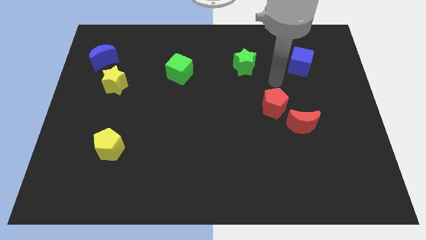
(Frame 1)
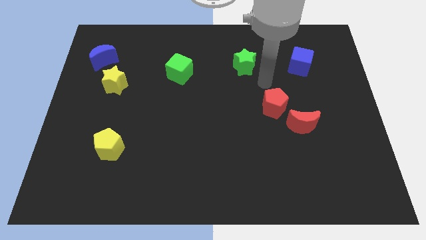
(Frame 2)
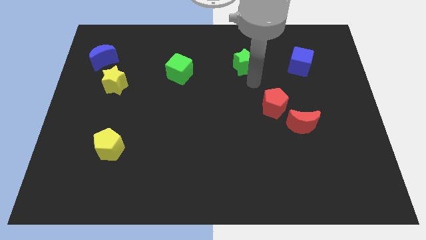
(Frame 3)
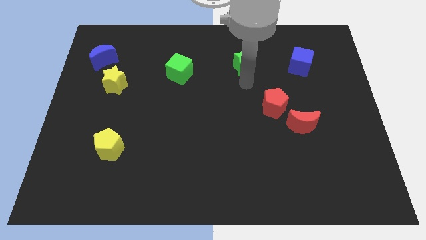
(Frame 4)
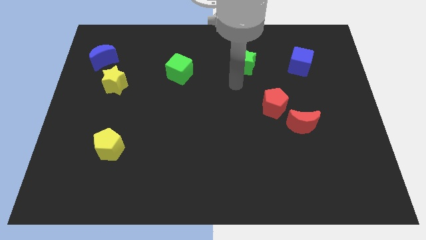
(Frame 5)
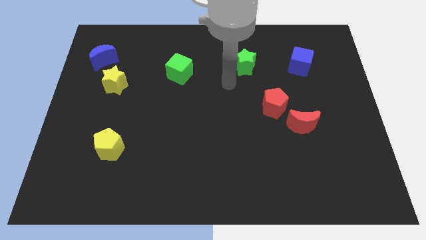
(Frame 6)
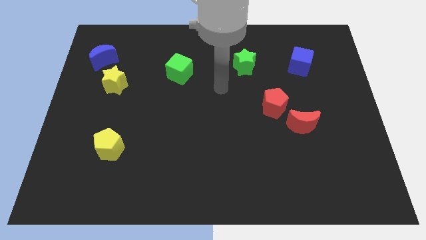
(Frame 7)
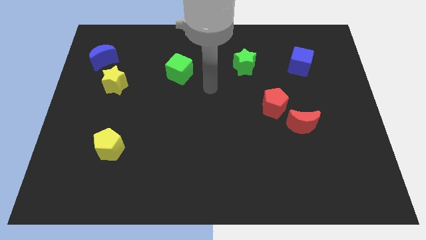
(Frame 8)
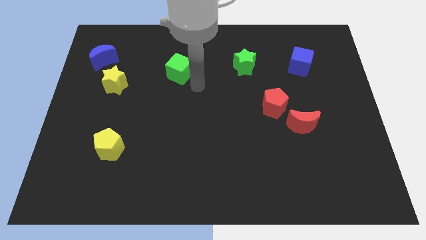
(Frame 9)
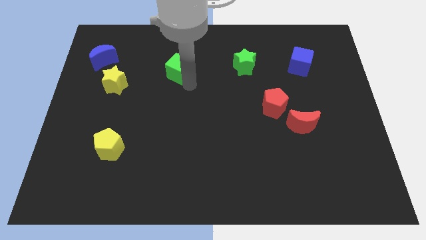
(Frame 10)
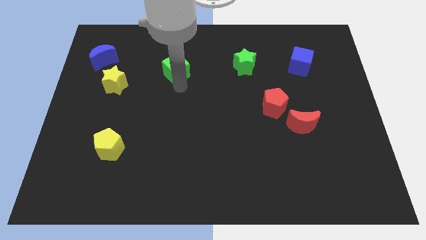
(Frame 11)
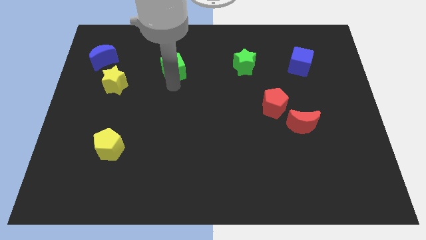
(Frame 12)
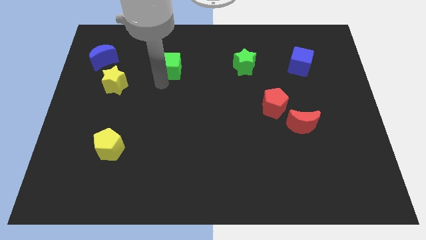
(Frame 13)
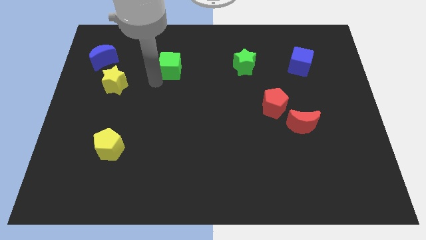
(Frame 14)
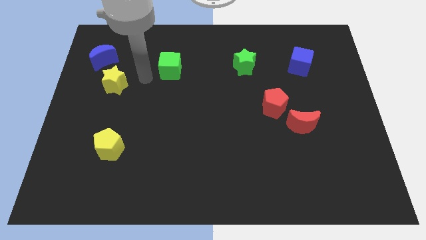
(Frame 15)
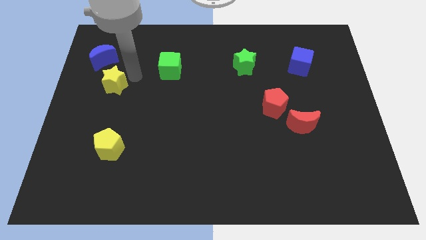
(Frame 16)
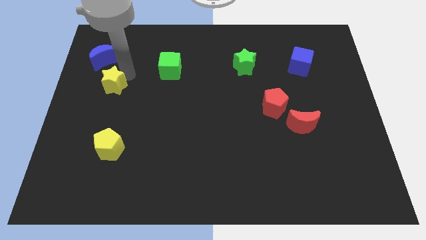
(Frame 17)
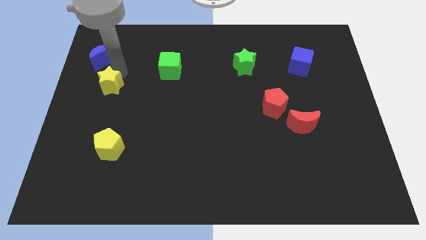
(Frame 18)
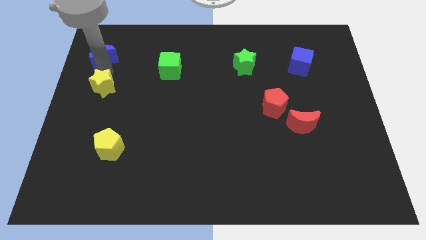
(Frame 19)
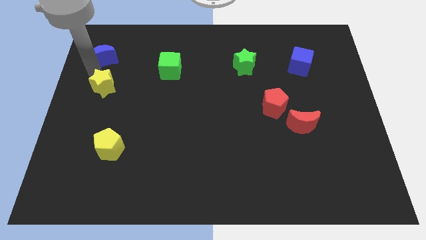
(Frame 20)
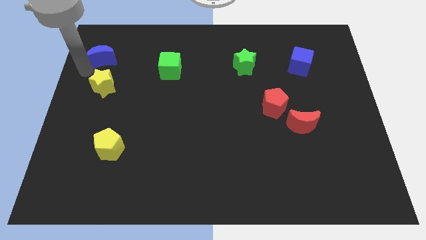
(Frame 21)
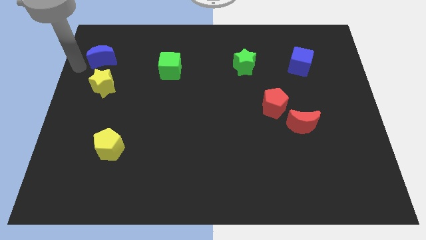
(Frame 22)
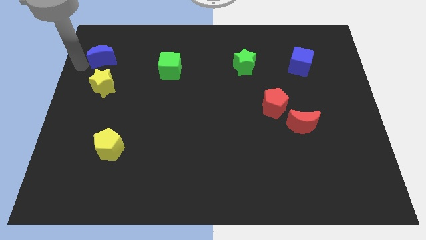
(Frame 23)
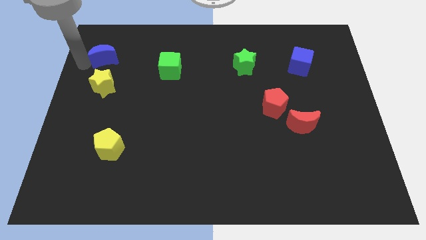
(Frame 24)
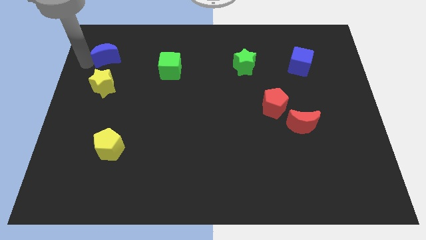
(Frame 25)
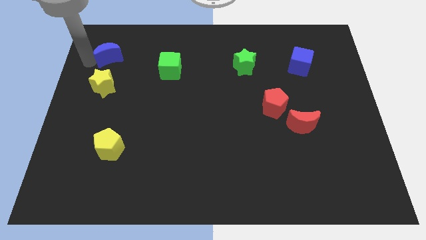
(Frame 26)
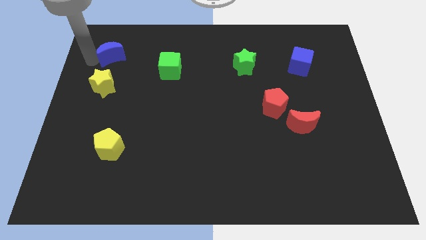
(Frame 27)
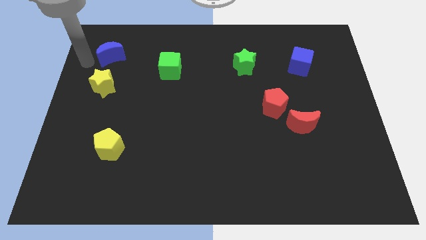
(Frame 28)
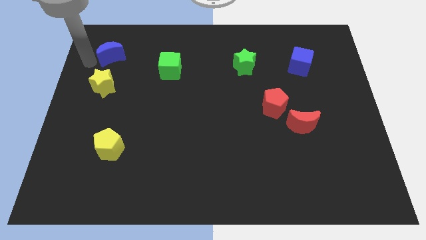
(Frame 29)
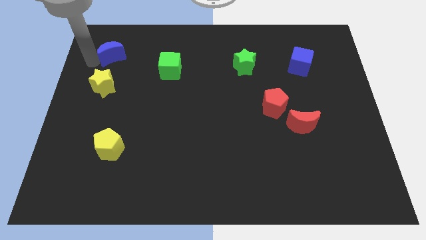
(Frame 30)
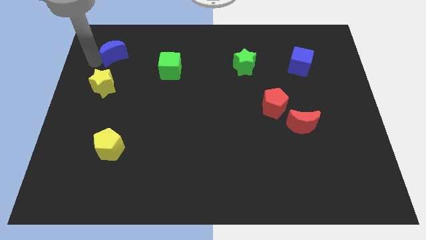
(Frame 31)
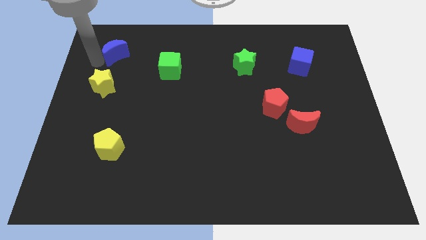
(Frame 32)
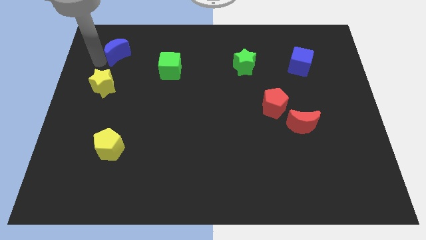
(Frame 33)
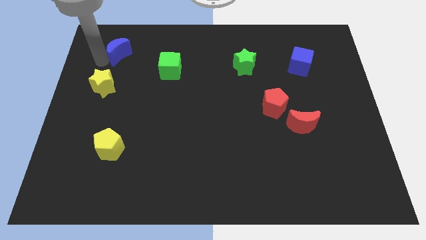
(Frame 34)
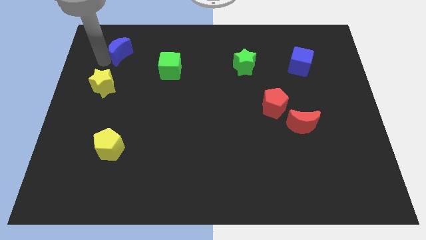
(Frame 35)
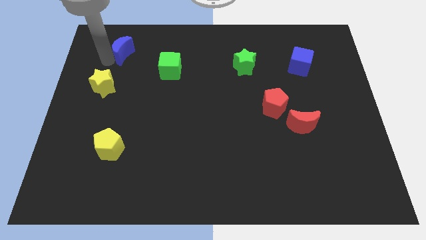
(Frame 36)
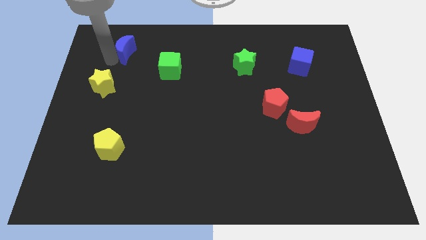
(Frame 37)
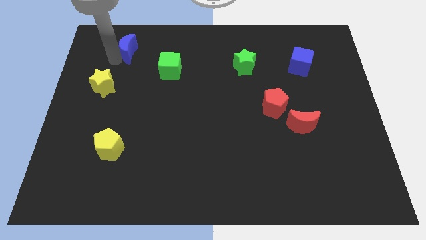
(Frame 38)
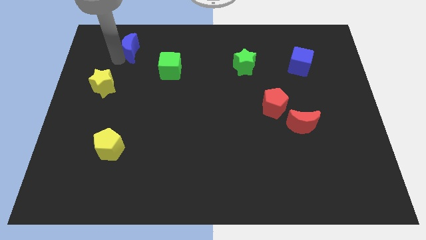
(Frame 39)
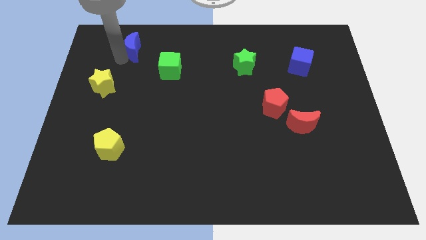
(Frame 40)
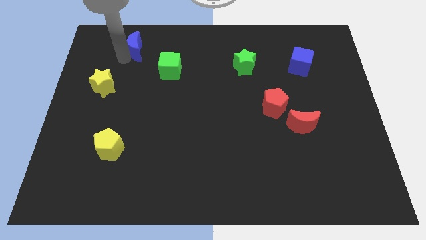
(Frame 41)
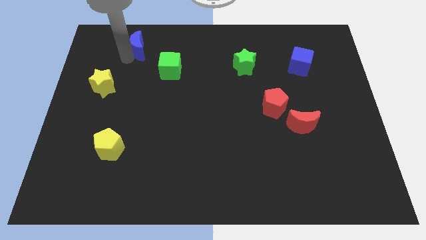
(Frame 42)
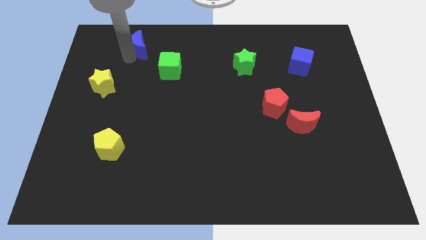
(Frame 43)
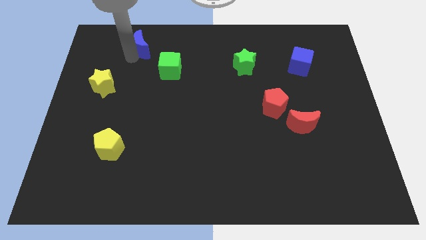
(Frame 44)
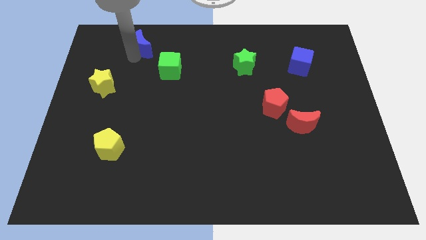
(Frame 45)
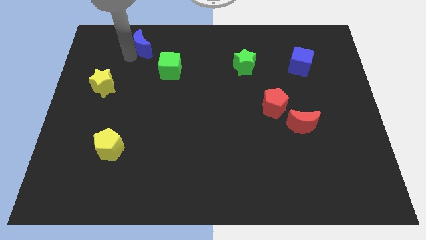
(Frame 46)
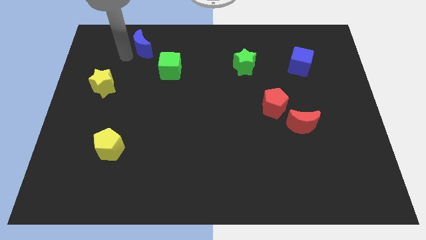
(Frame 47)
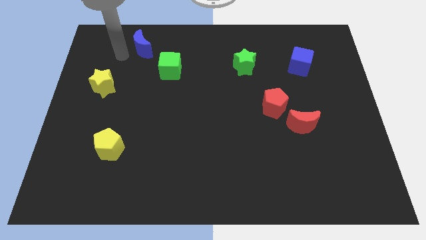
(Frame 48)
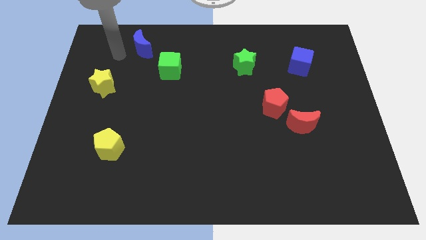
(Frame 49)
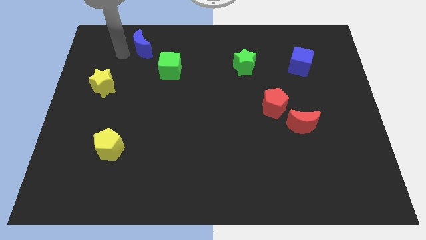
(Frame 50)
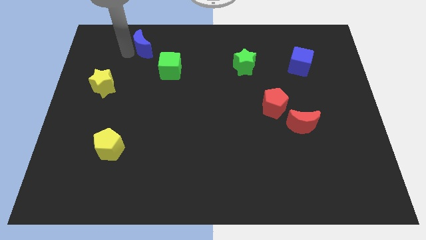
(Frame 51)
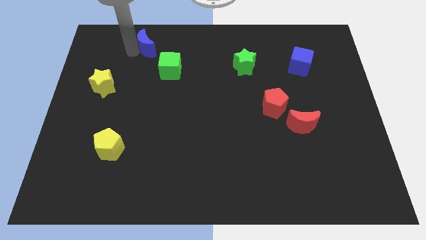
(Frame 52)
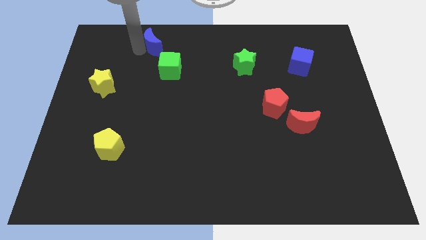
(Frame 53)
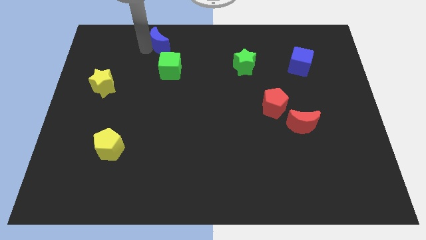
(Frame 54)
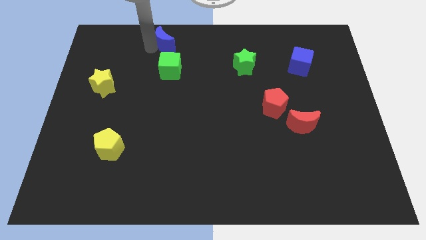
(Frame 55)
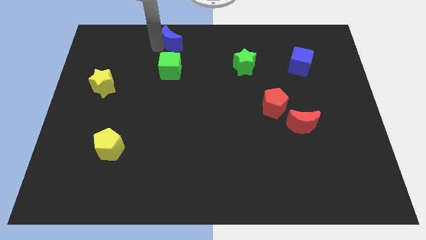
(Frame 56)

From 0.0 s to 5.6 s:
move the blue moon to the top side

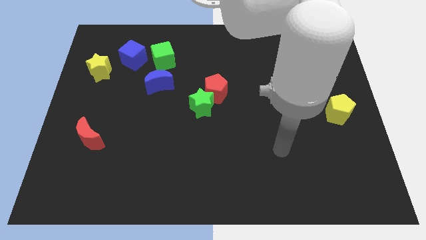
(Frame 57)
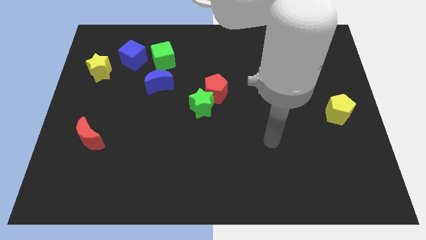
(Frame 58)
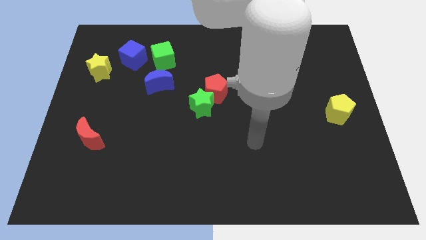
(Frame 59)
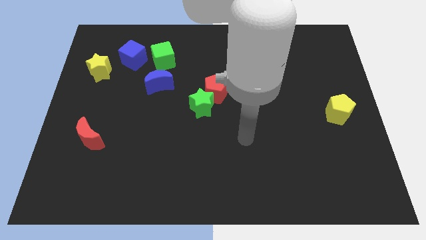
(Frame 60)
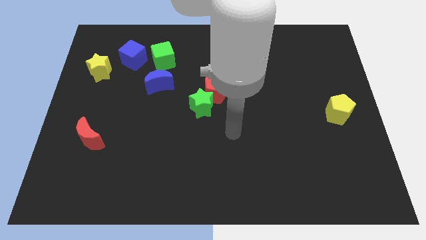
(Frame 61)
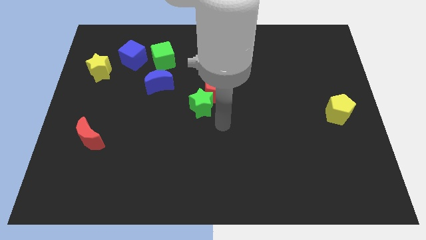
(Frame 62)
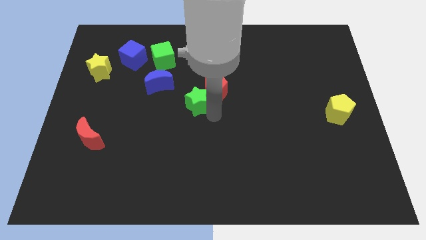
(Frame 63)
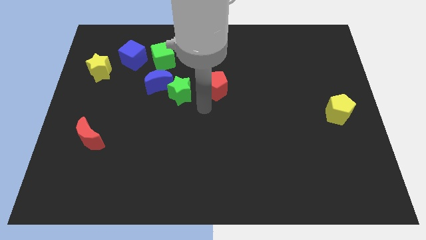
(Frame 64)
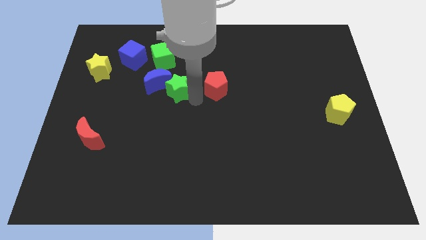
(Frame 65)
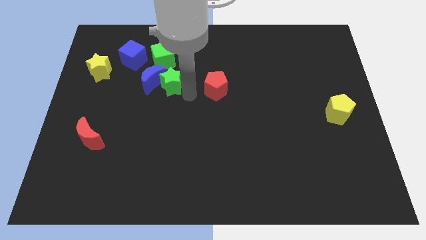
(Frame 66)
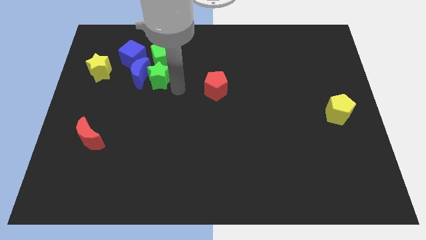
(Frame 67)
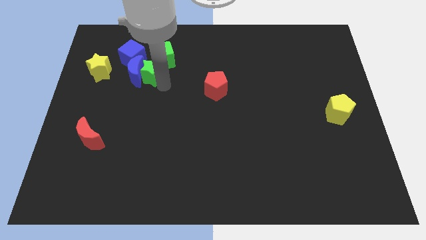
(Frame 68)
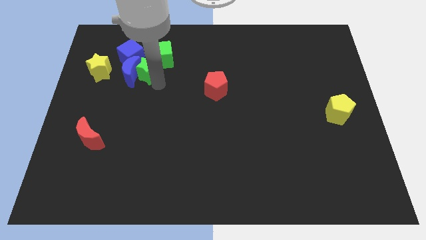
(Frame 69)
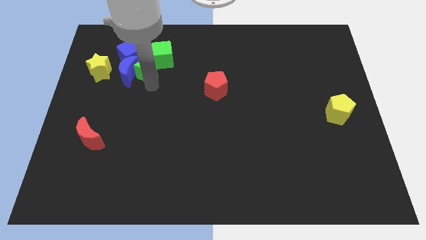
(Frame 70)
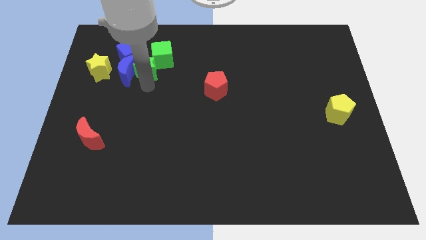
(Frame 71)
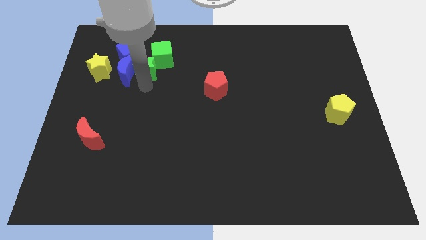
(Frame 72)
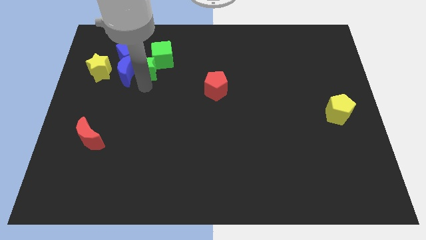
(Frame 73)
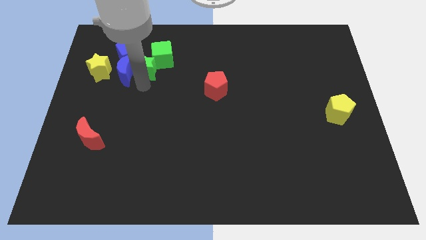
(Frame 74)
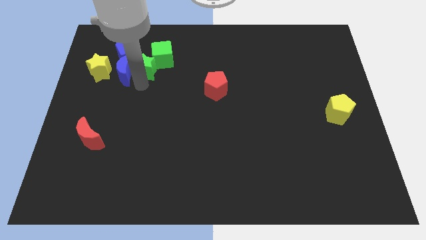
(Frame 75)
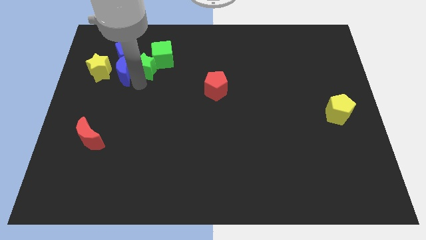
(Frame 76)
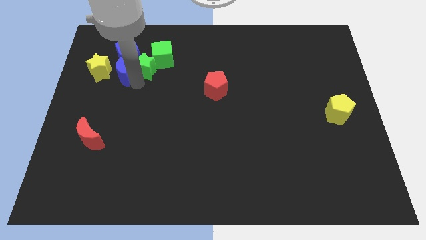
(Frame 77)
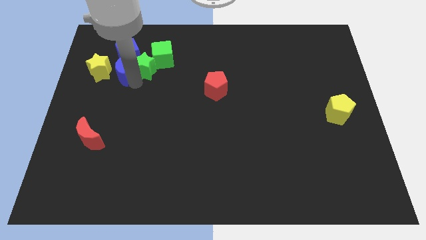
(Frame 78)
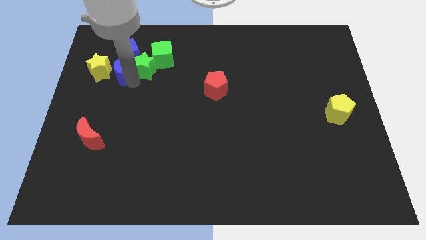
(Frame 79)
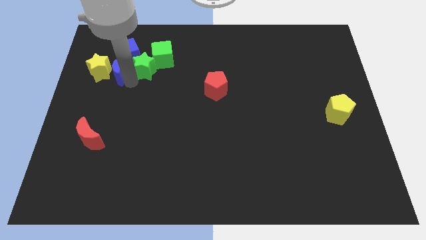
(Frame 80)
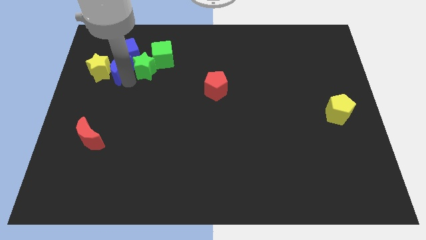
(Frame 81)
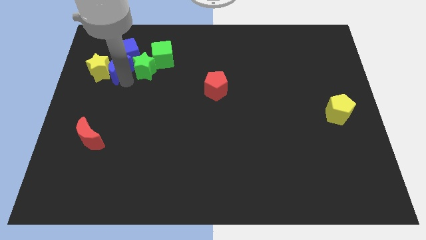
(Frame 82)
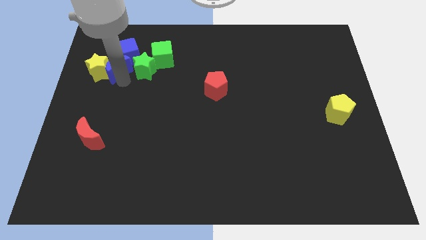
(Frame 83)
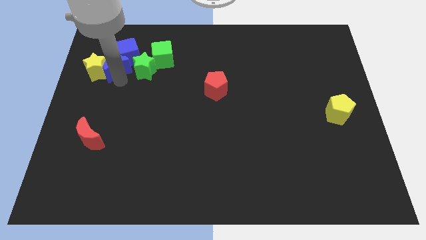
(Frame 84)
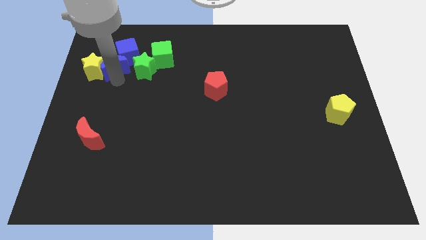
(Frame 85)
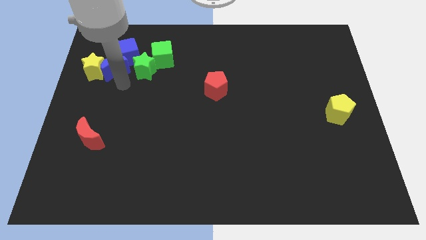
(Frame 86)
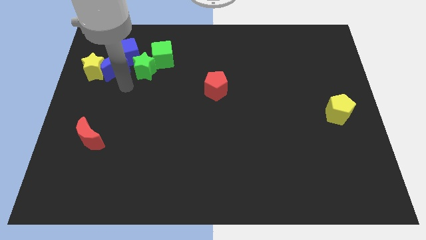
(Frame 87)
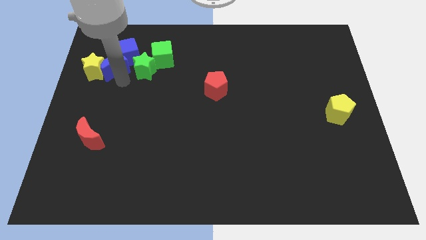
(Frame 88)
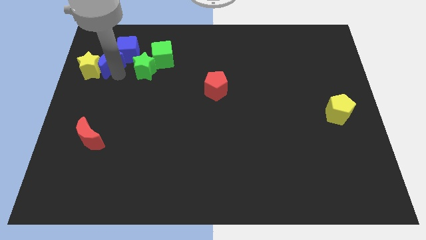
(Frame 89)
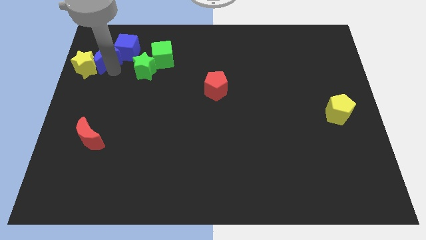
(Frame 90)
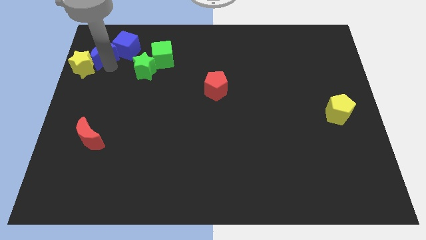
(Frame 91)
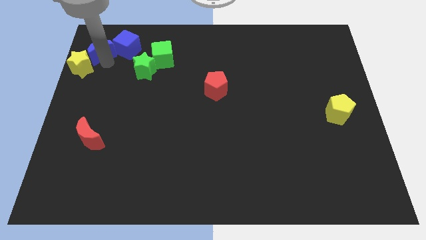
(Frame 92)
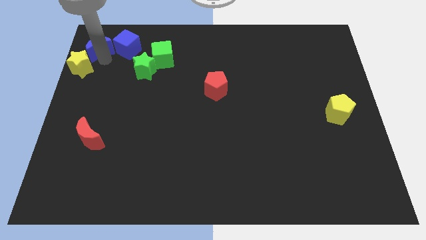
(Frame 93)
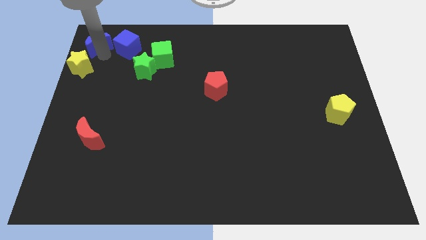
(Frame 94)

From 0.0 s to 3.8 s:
move the blue moon to the top left corner
